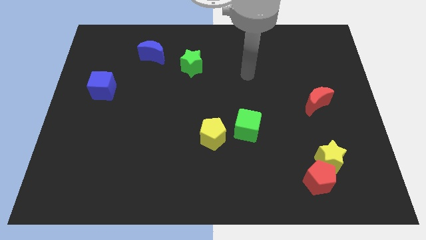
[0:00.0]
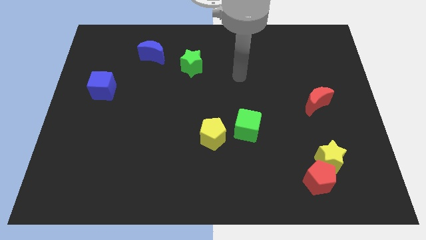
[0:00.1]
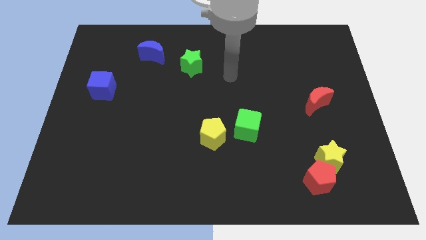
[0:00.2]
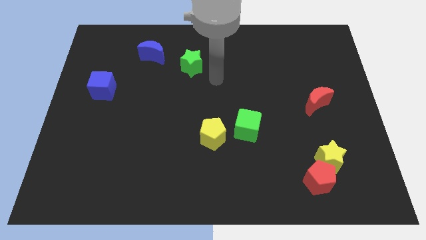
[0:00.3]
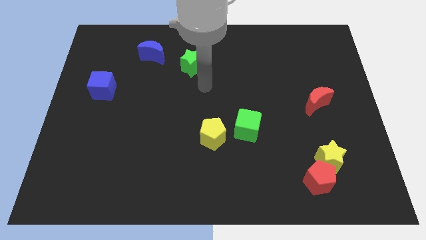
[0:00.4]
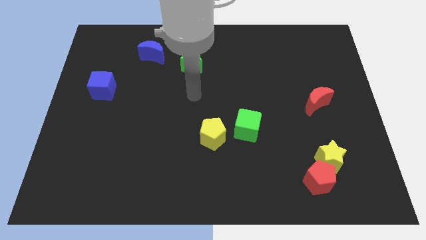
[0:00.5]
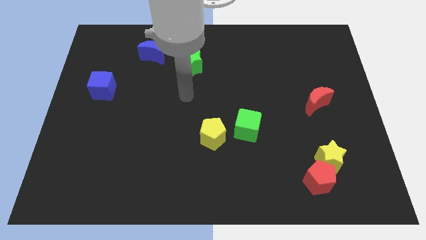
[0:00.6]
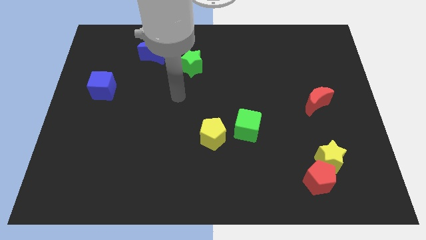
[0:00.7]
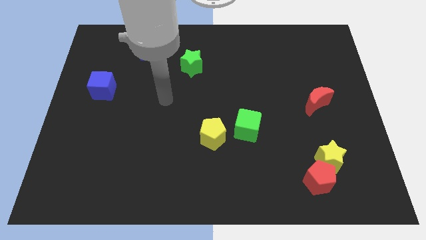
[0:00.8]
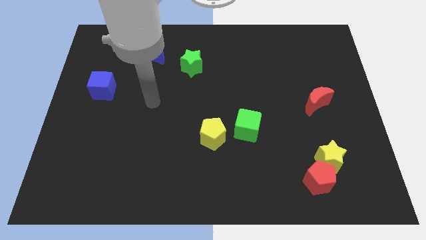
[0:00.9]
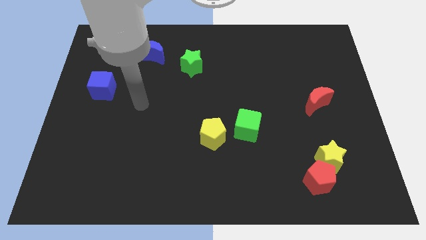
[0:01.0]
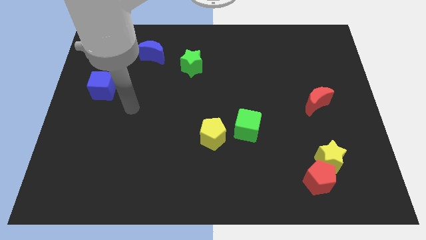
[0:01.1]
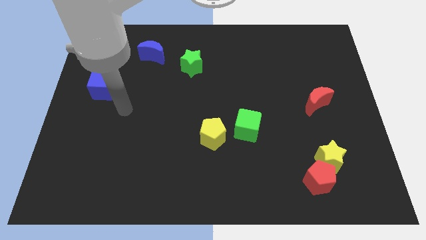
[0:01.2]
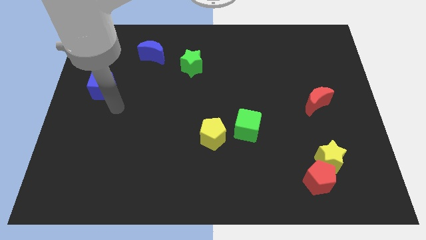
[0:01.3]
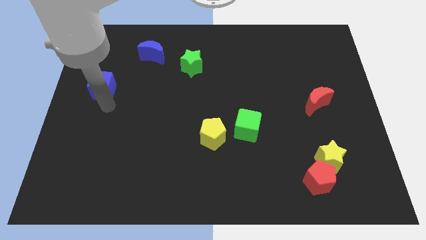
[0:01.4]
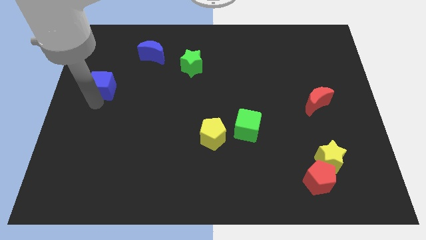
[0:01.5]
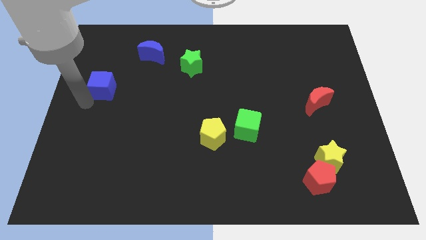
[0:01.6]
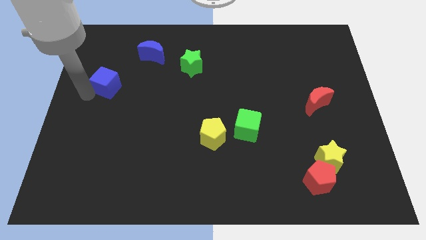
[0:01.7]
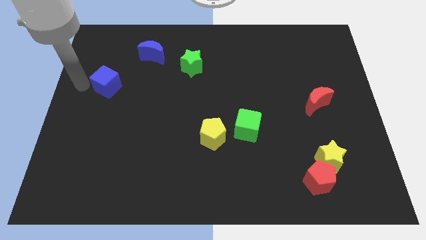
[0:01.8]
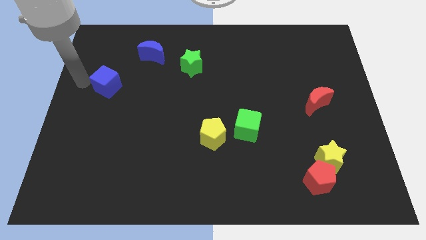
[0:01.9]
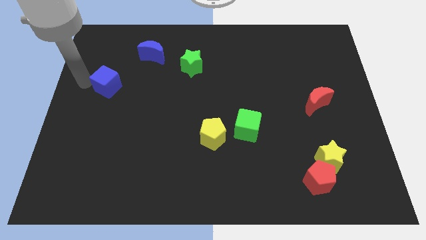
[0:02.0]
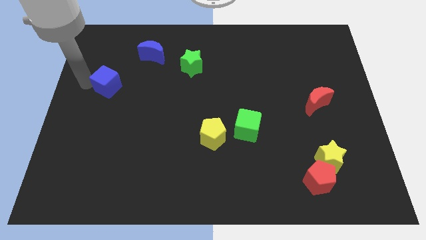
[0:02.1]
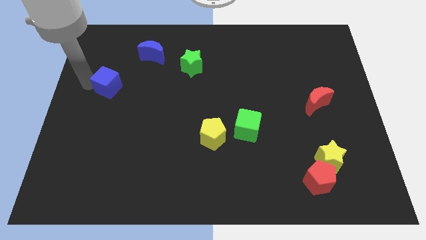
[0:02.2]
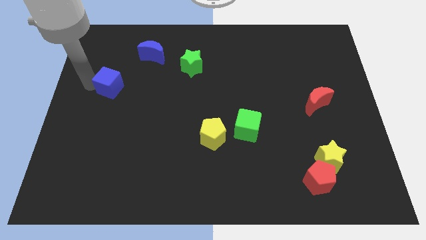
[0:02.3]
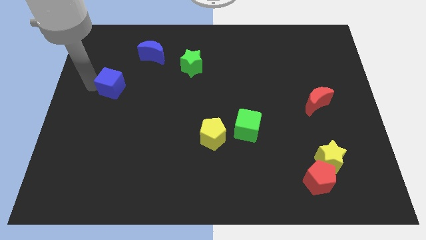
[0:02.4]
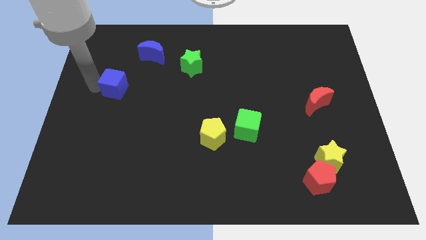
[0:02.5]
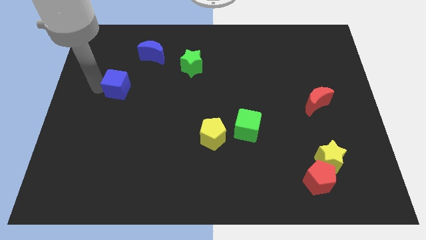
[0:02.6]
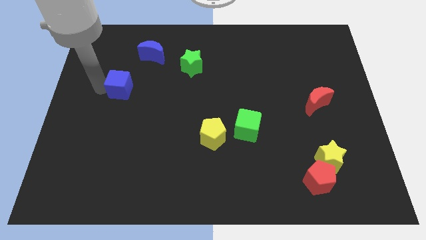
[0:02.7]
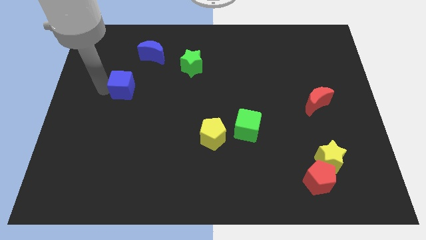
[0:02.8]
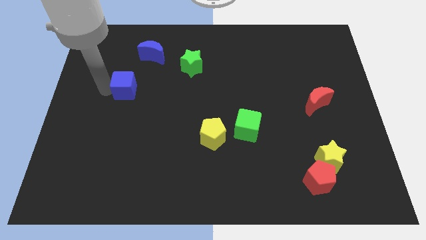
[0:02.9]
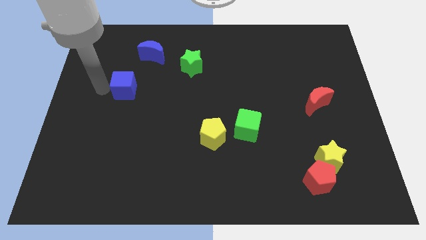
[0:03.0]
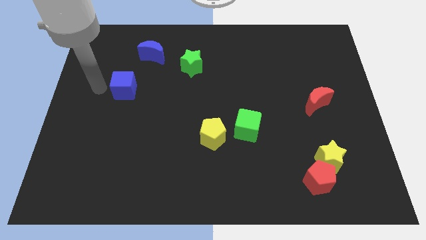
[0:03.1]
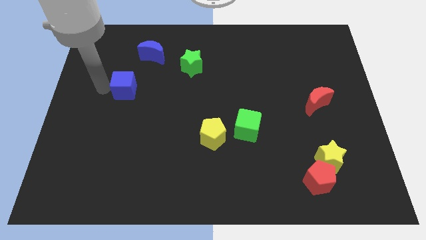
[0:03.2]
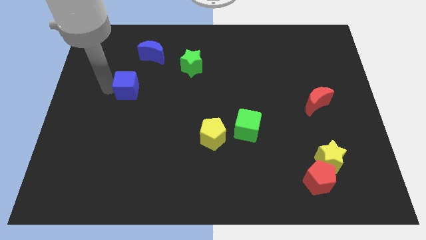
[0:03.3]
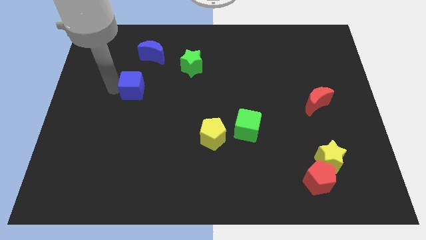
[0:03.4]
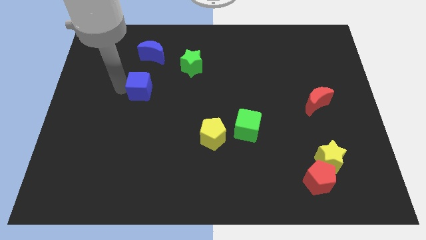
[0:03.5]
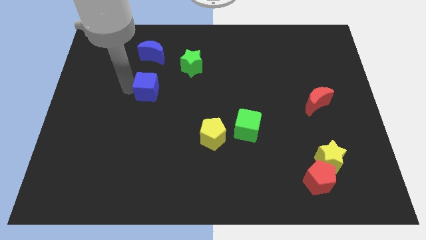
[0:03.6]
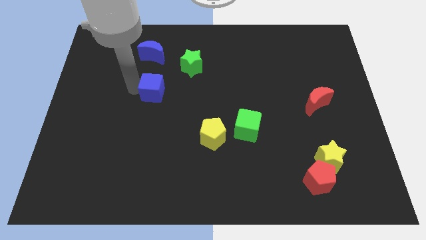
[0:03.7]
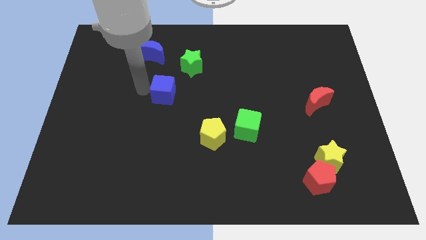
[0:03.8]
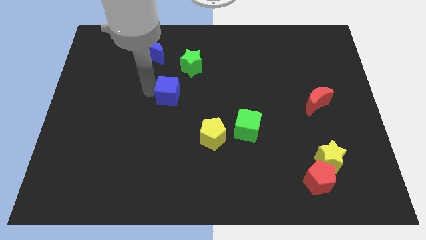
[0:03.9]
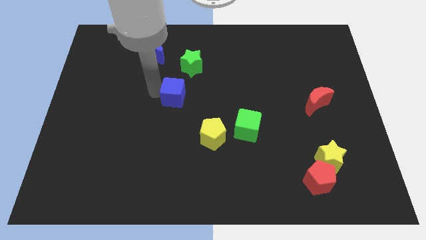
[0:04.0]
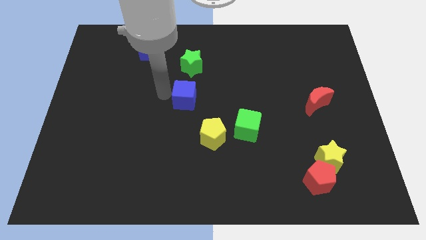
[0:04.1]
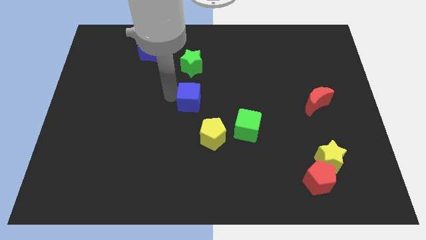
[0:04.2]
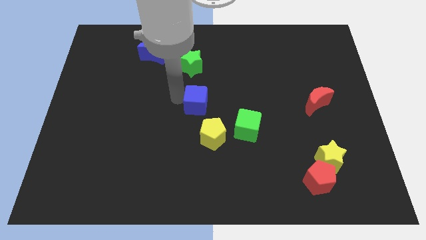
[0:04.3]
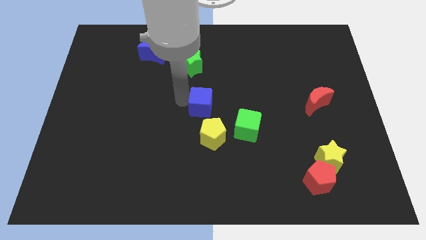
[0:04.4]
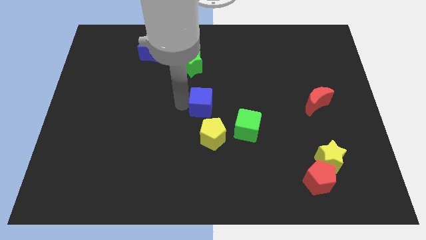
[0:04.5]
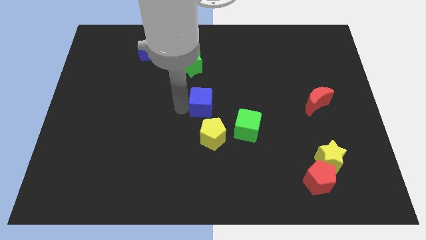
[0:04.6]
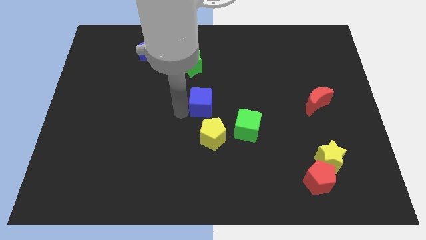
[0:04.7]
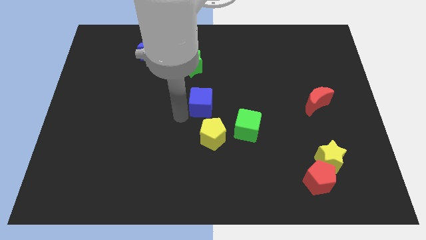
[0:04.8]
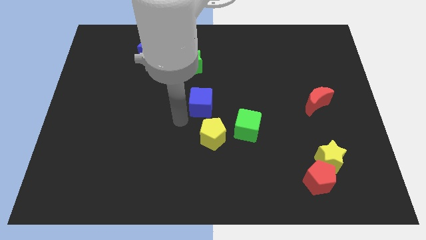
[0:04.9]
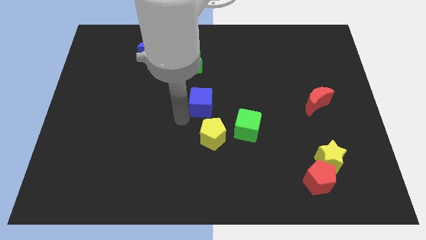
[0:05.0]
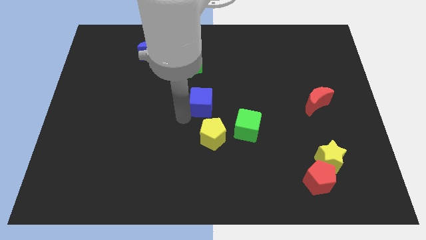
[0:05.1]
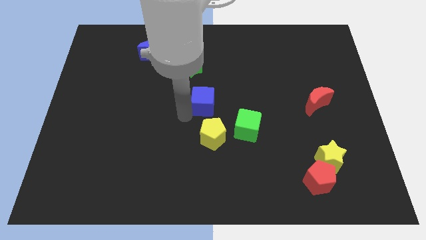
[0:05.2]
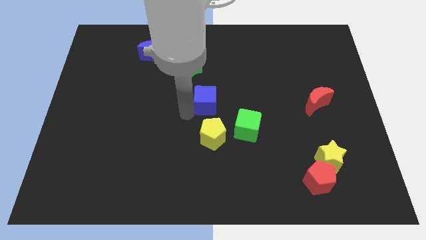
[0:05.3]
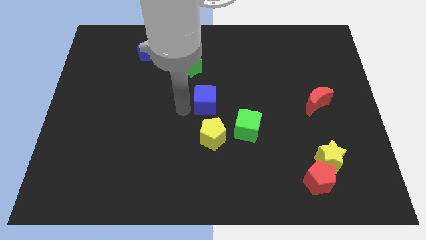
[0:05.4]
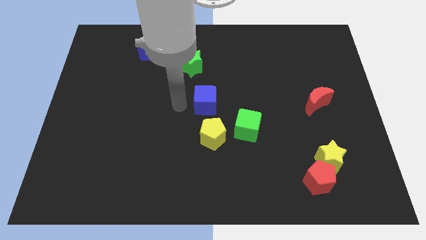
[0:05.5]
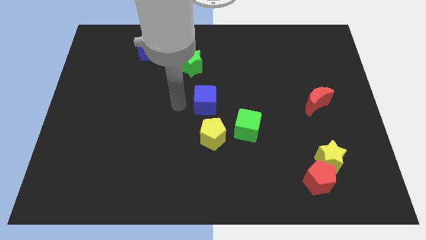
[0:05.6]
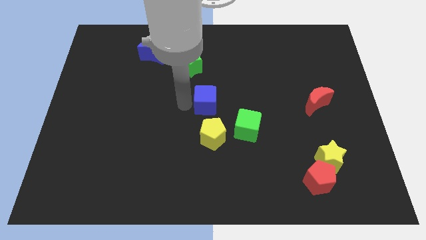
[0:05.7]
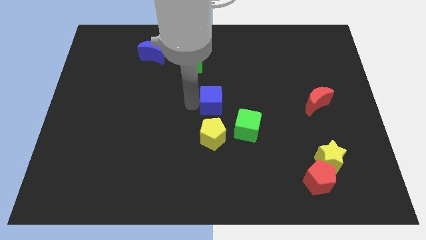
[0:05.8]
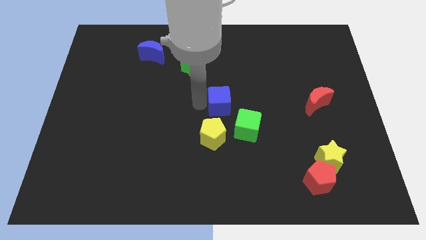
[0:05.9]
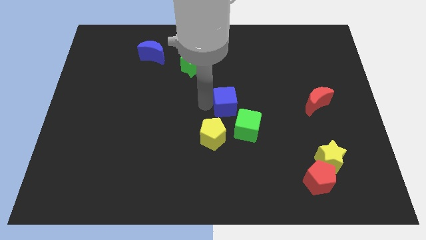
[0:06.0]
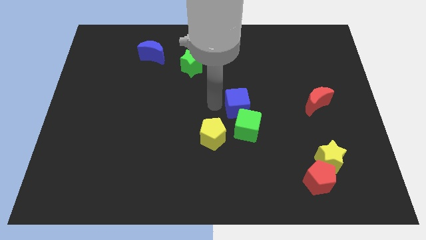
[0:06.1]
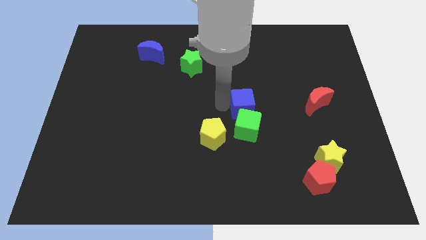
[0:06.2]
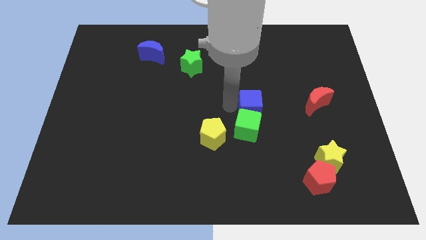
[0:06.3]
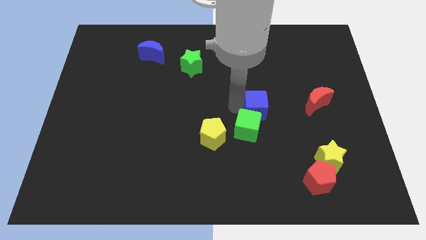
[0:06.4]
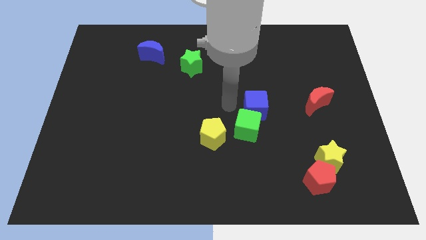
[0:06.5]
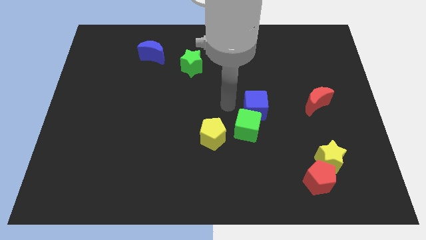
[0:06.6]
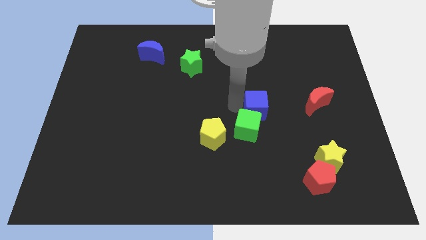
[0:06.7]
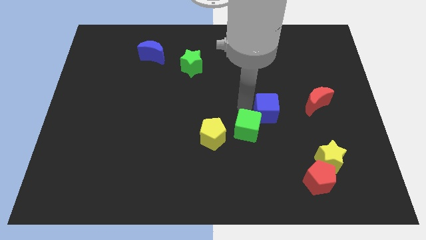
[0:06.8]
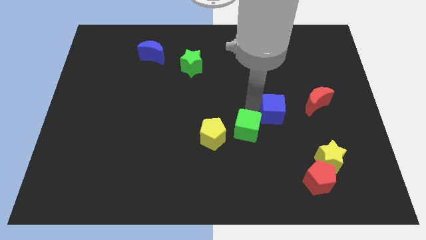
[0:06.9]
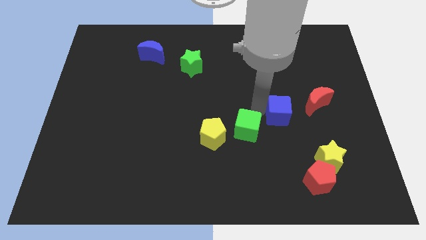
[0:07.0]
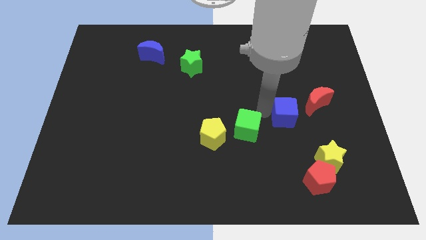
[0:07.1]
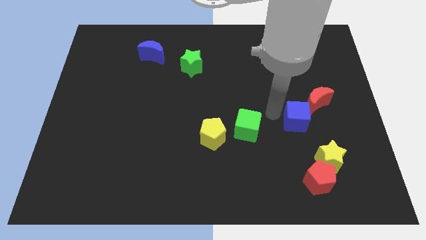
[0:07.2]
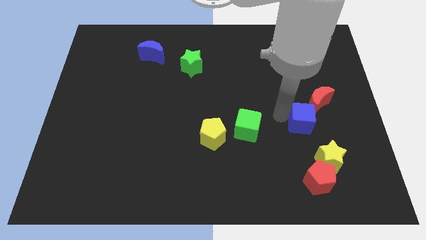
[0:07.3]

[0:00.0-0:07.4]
slide the blue cube to the top side of the yellow star
